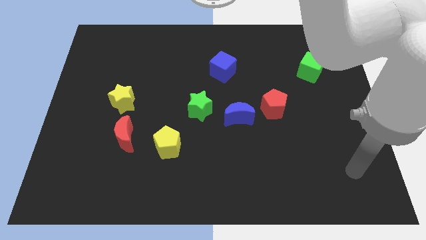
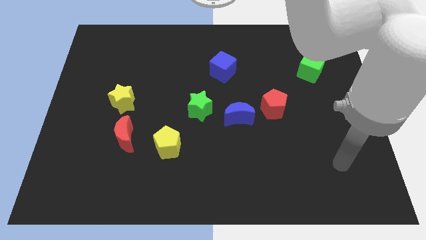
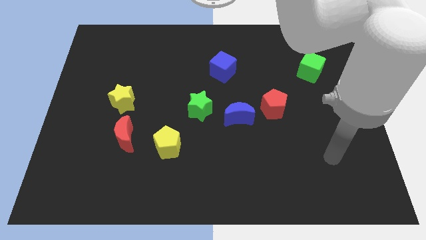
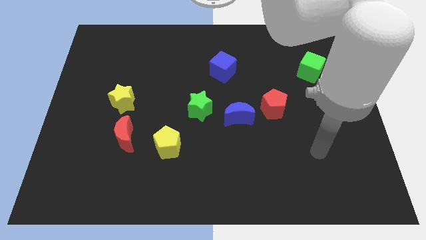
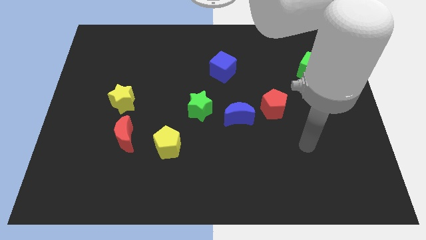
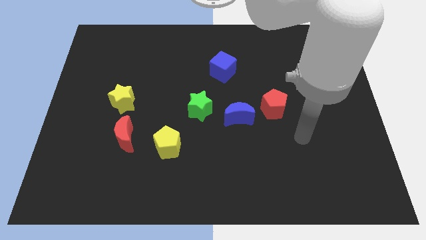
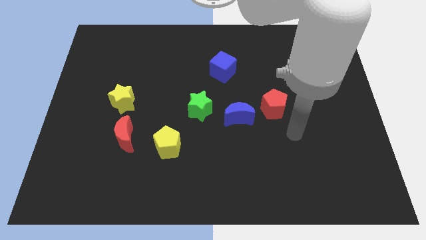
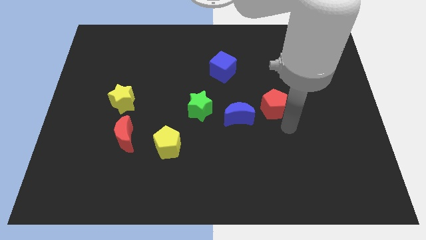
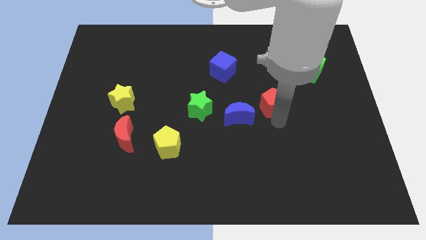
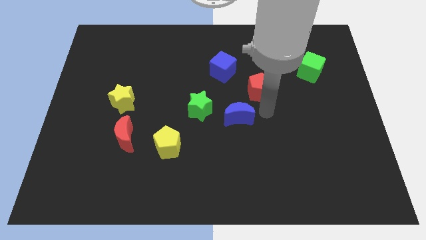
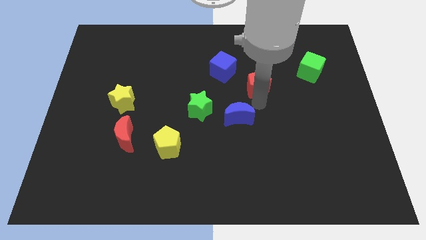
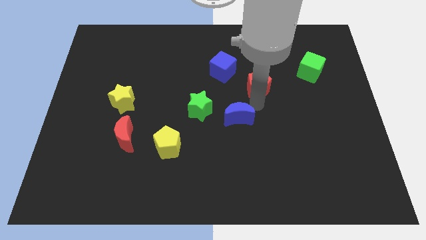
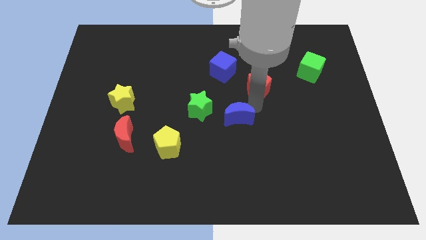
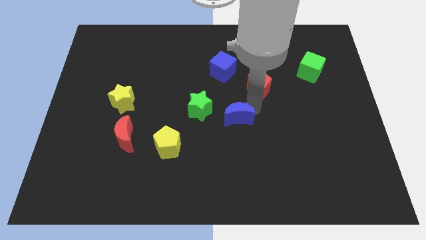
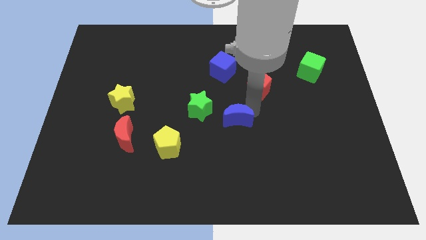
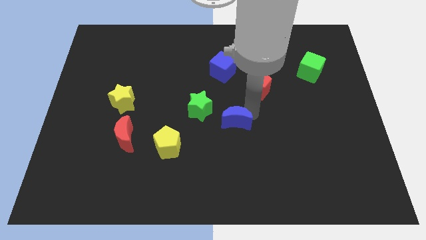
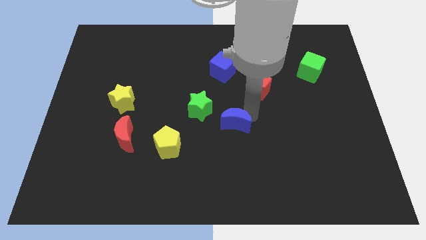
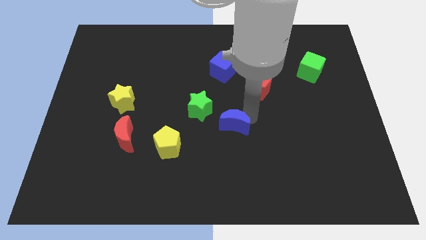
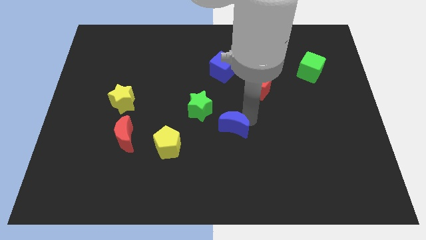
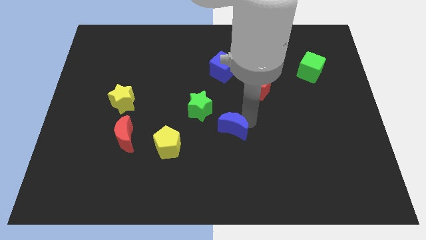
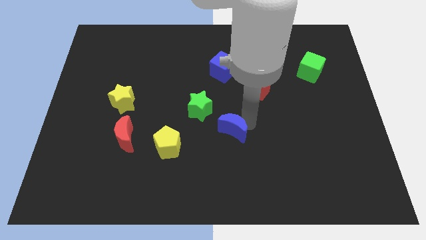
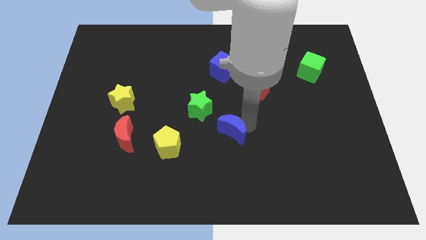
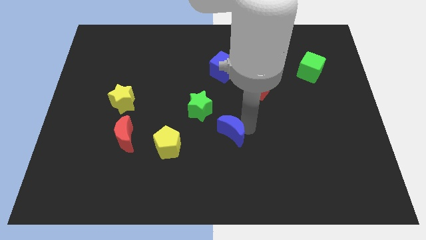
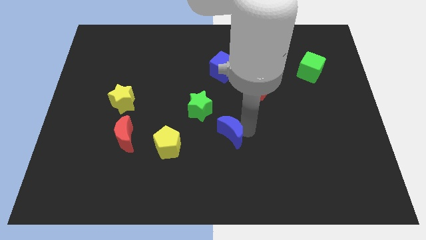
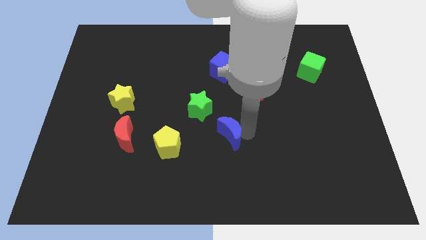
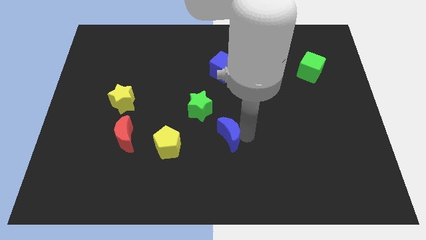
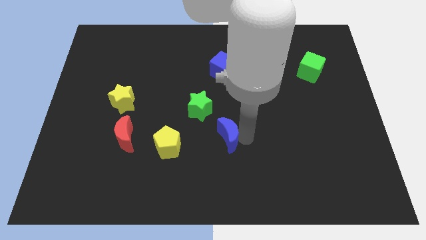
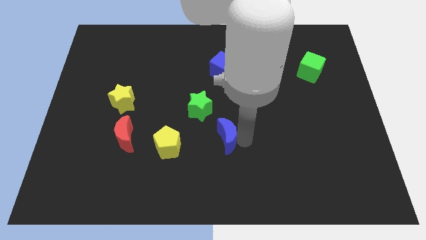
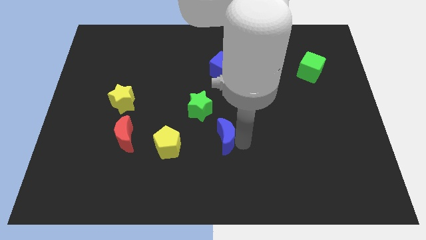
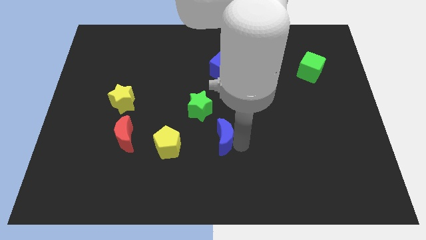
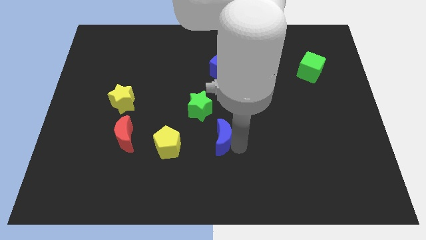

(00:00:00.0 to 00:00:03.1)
push the blue moon a little bit downwards and then to the left

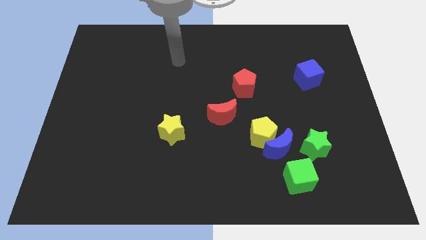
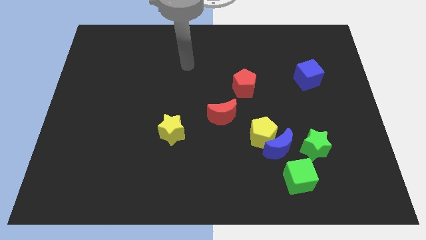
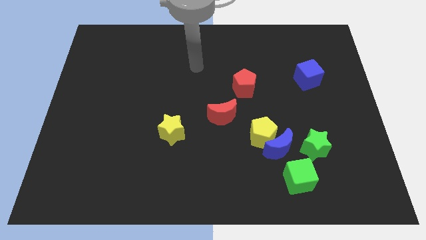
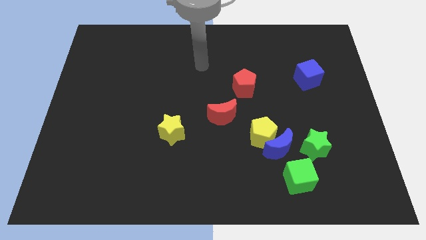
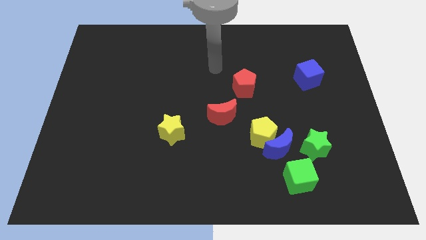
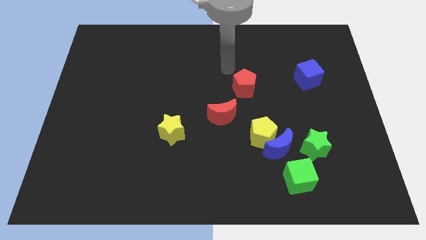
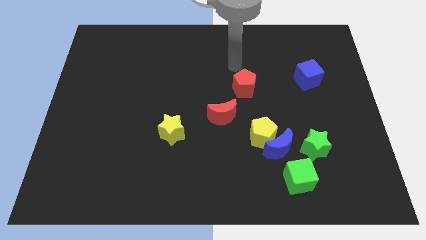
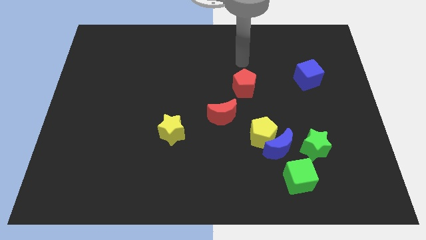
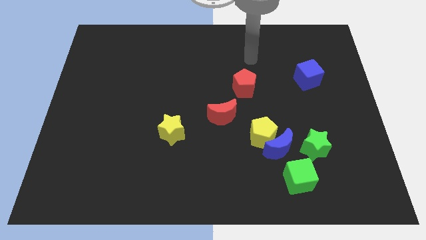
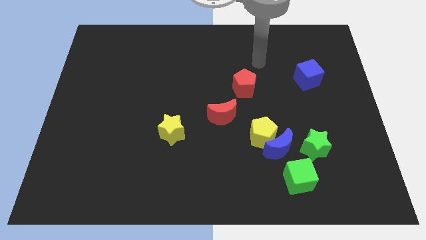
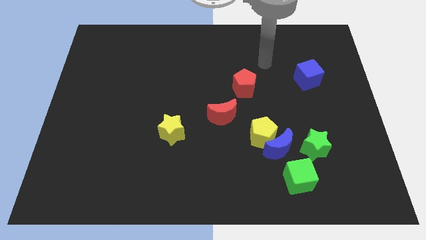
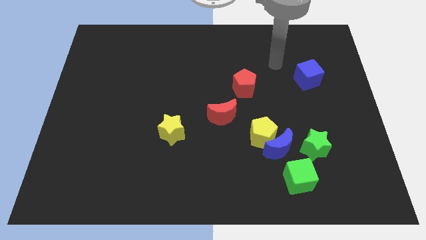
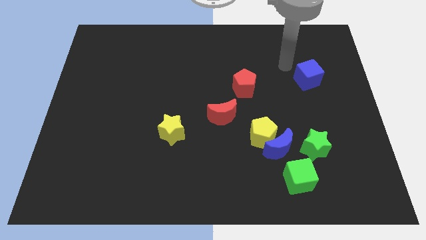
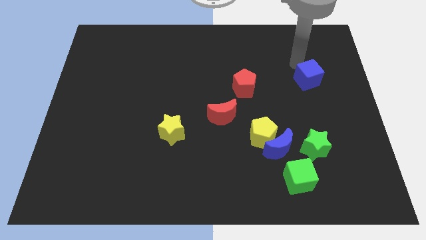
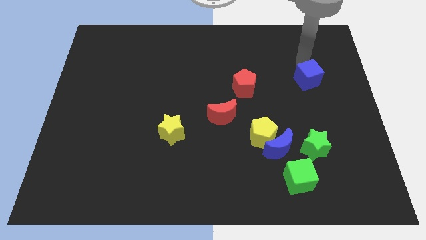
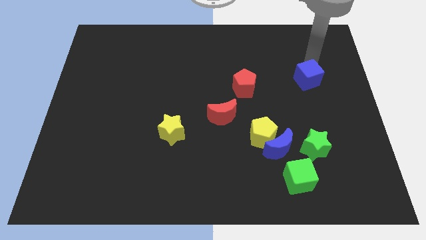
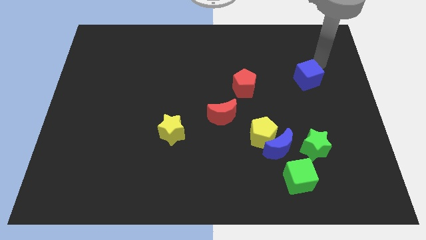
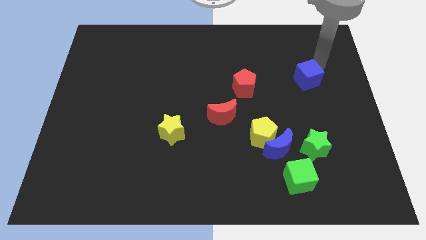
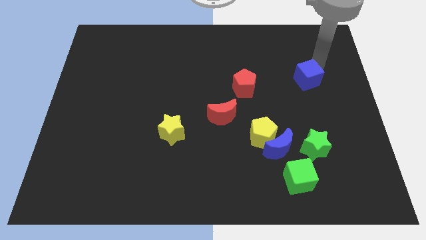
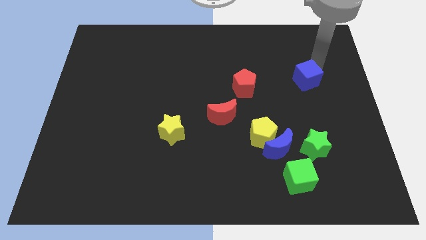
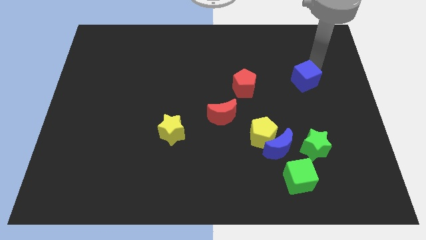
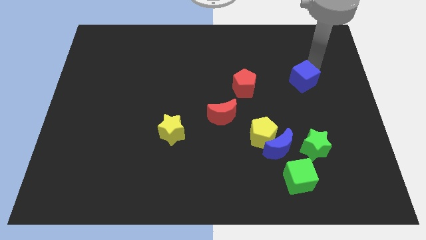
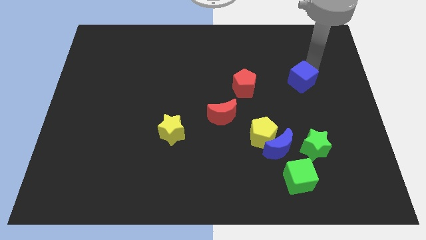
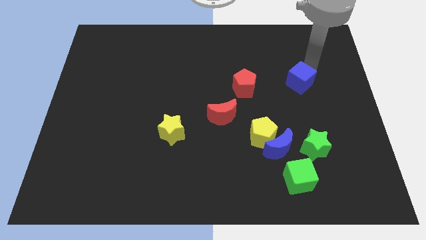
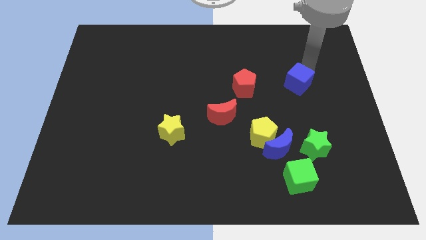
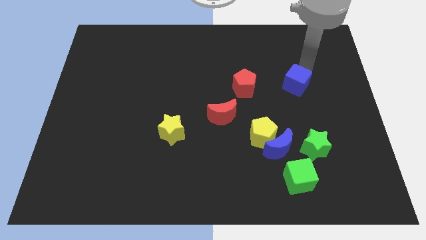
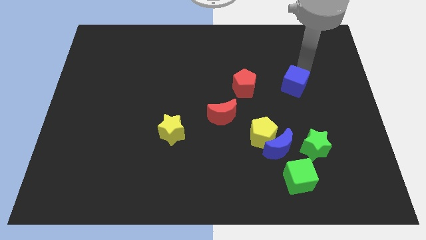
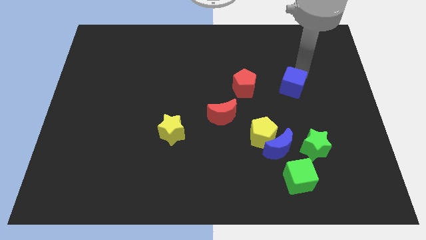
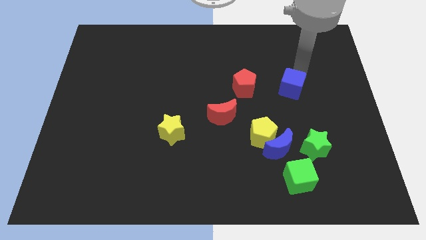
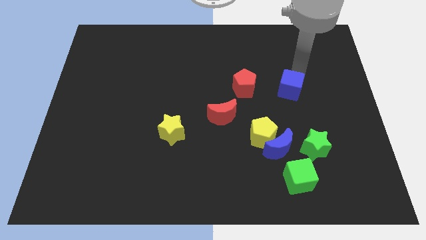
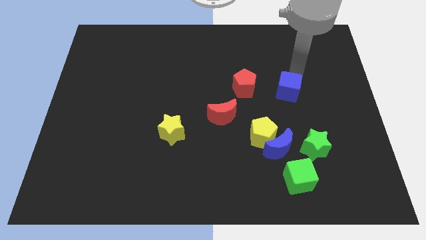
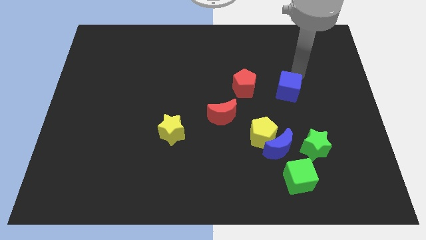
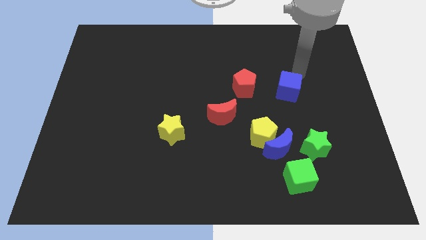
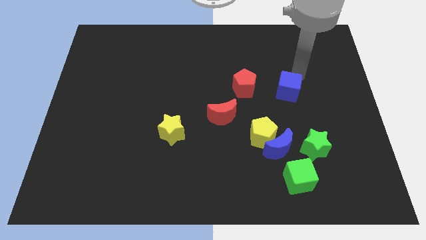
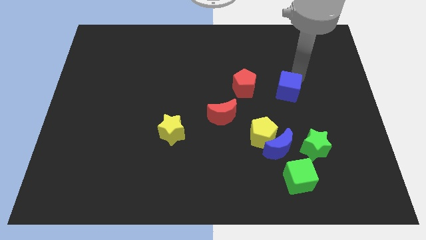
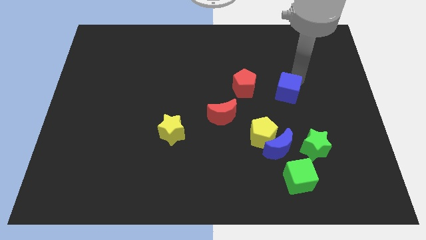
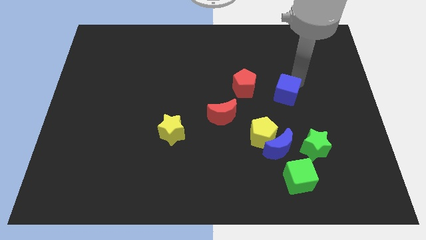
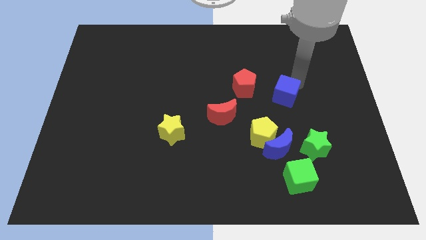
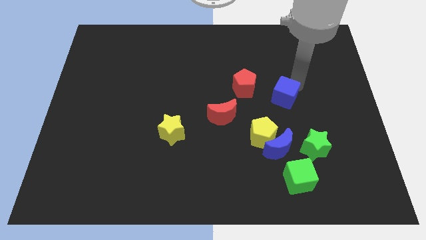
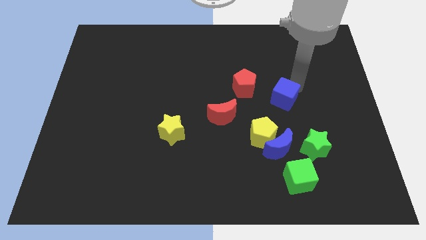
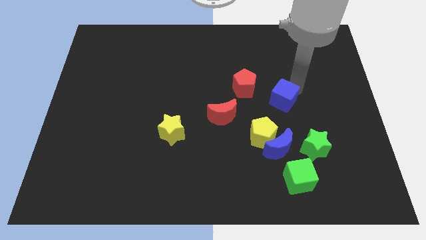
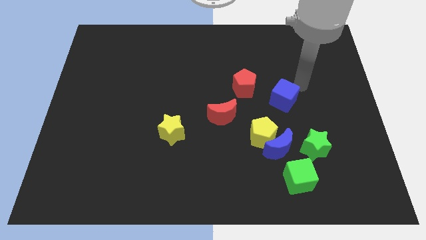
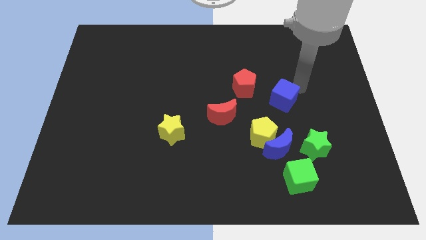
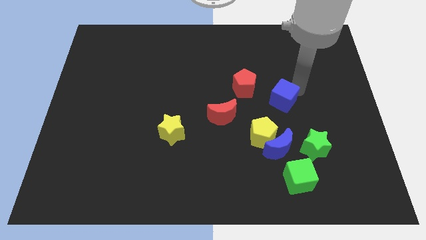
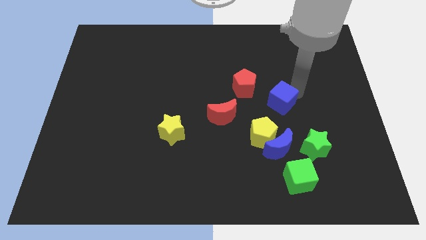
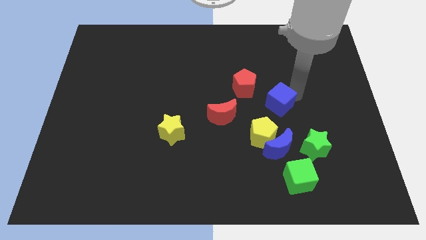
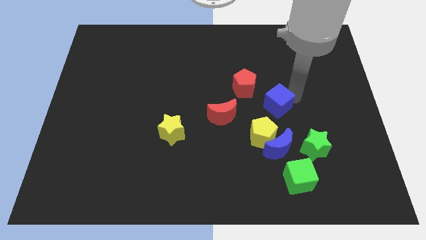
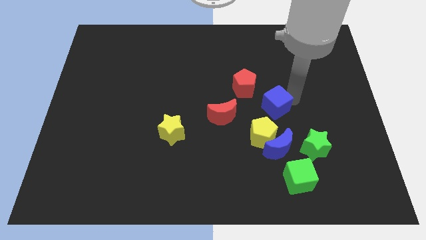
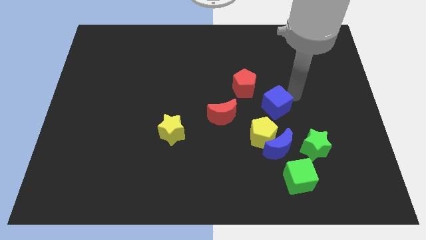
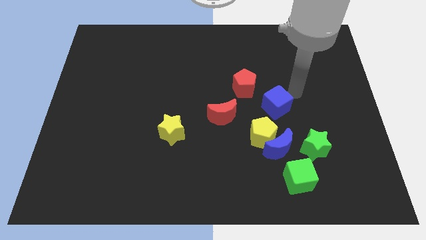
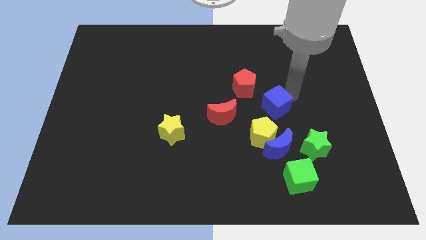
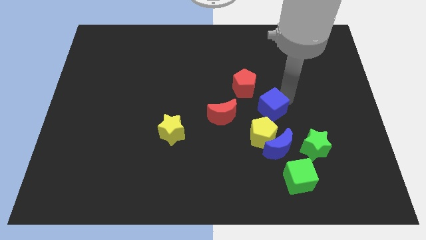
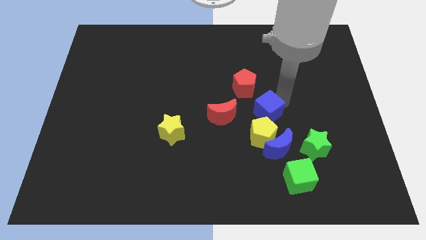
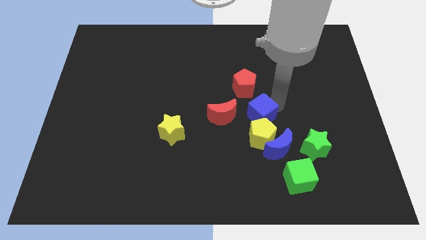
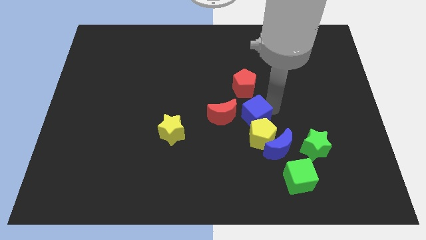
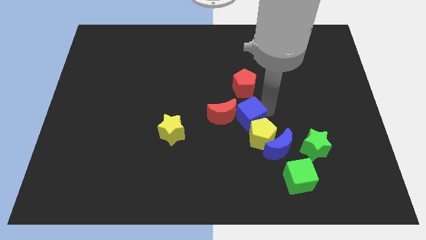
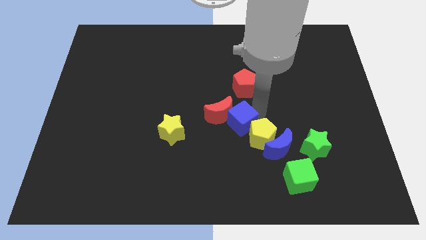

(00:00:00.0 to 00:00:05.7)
move the blue cube downwards and left
